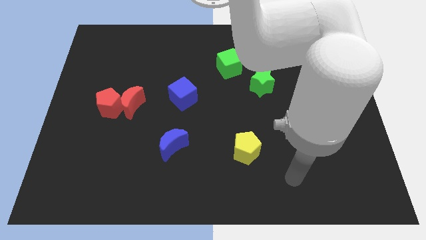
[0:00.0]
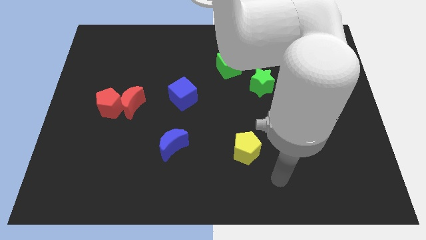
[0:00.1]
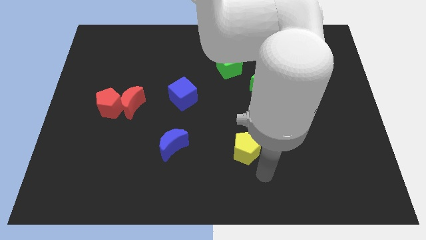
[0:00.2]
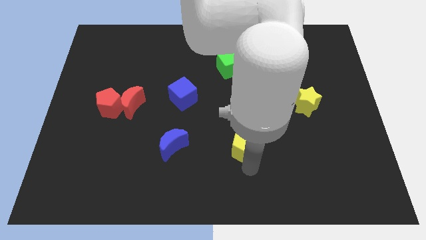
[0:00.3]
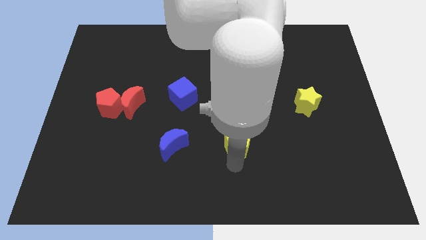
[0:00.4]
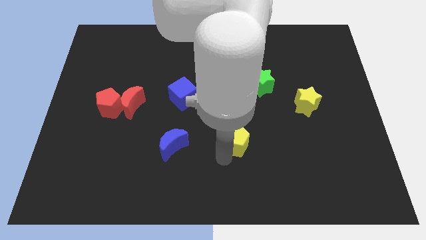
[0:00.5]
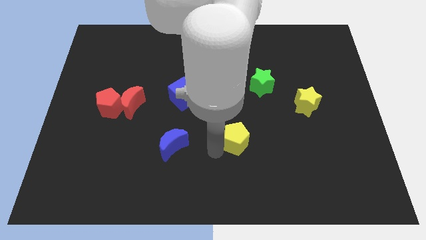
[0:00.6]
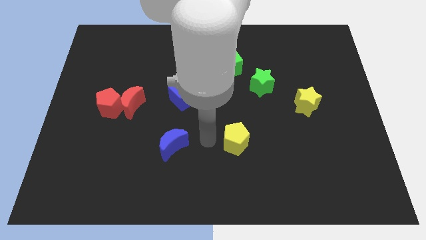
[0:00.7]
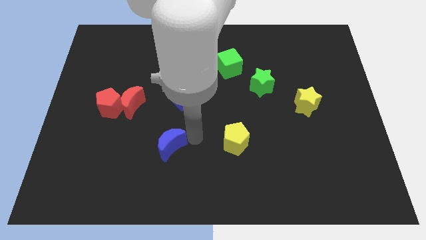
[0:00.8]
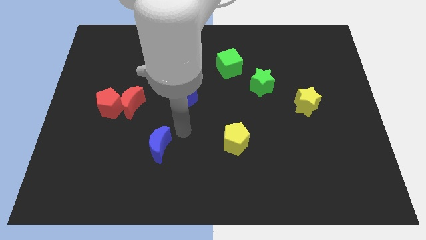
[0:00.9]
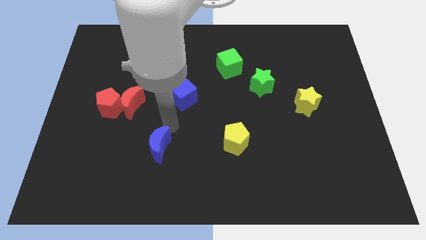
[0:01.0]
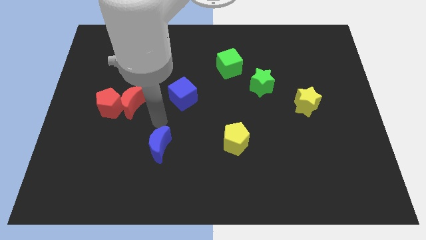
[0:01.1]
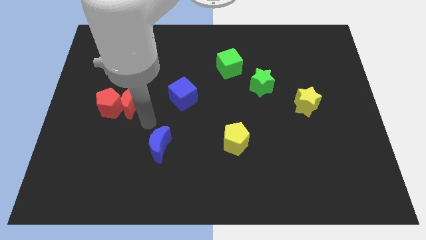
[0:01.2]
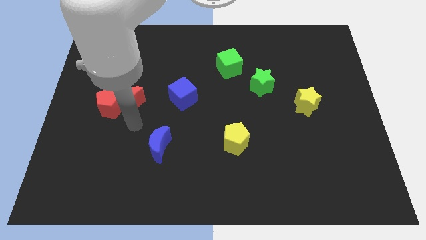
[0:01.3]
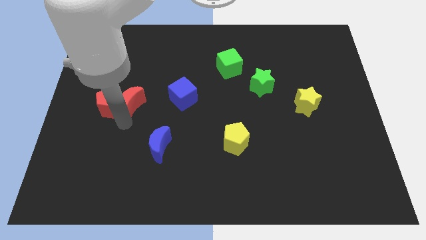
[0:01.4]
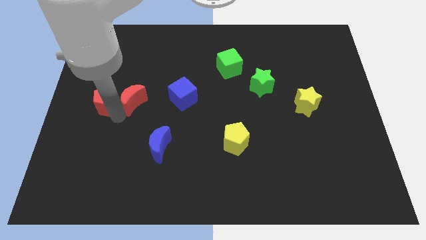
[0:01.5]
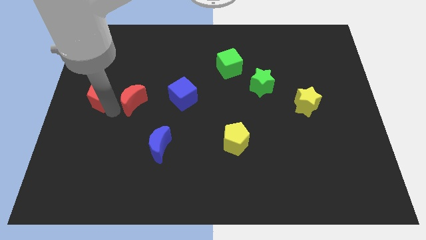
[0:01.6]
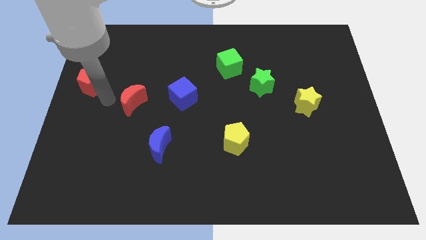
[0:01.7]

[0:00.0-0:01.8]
separate the red moon from the red pentagon

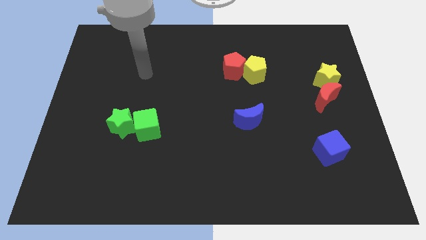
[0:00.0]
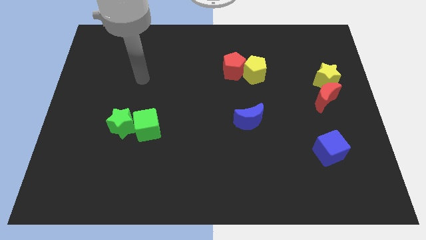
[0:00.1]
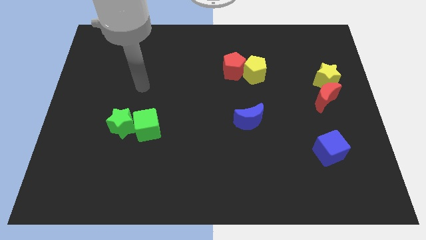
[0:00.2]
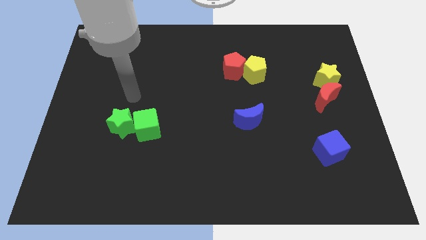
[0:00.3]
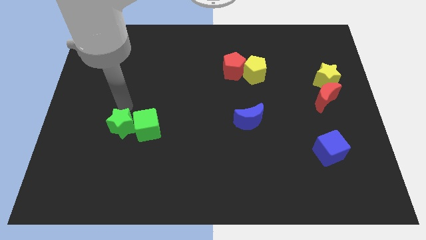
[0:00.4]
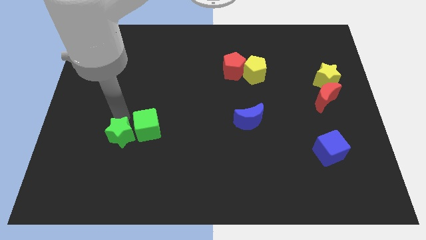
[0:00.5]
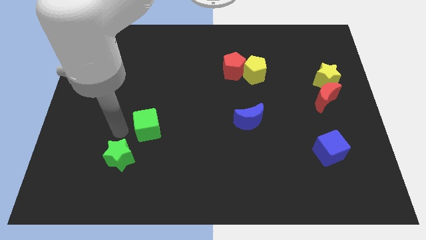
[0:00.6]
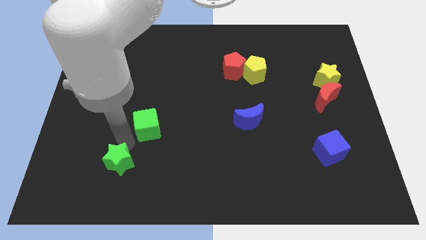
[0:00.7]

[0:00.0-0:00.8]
move the green cube away from the green star

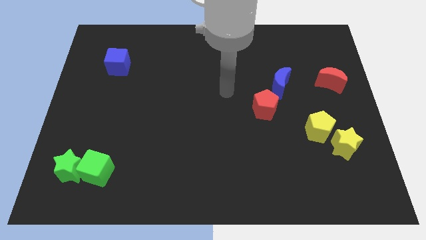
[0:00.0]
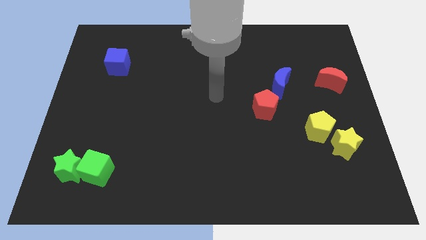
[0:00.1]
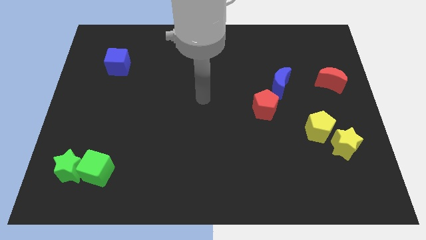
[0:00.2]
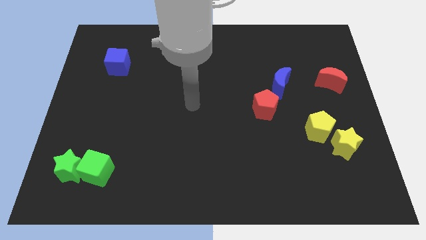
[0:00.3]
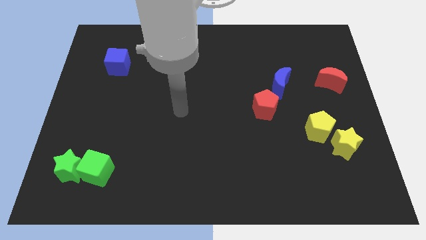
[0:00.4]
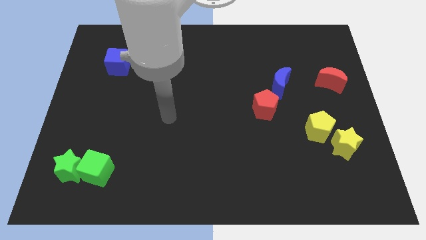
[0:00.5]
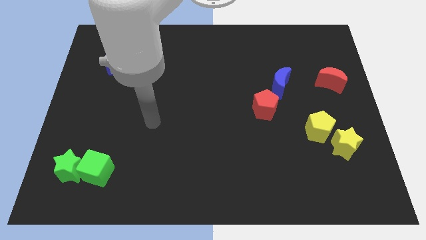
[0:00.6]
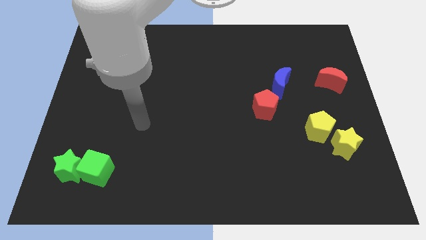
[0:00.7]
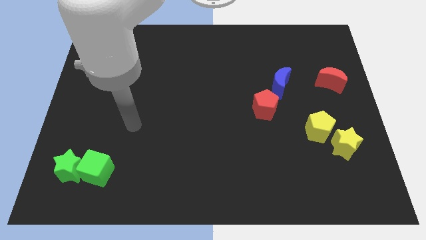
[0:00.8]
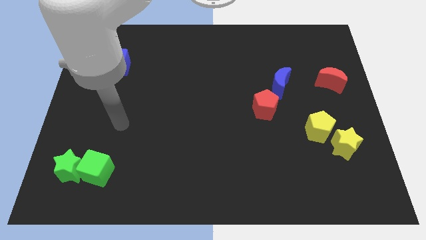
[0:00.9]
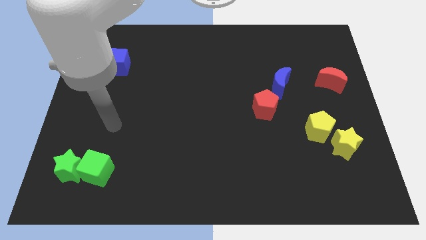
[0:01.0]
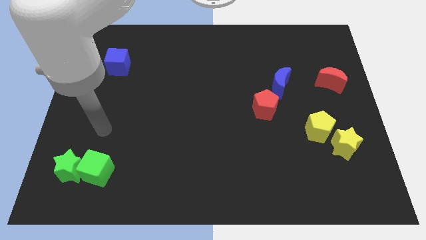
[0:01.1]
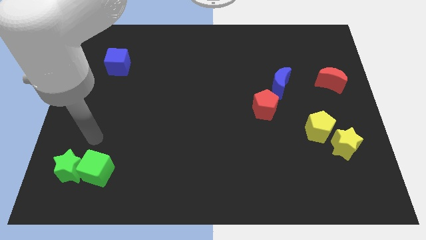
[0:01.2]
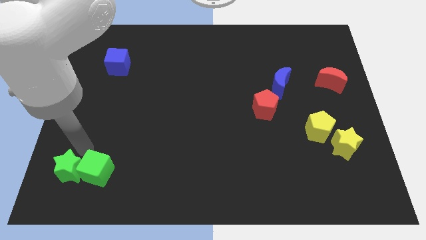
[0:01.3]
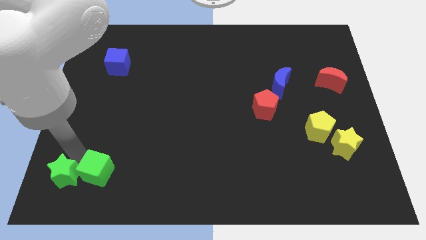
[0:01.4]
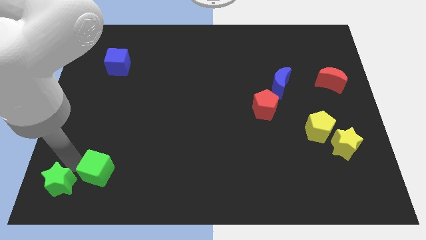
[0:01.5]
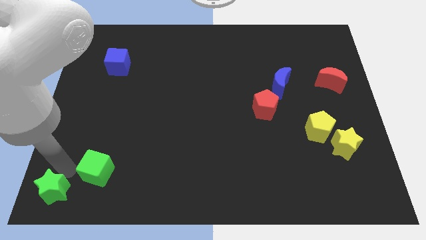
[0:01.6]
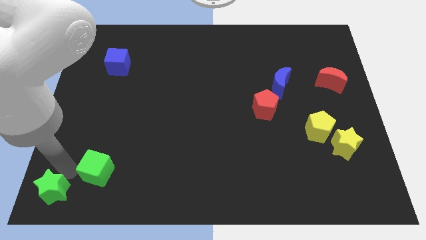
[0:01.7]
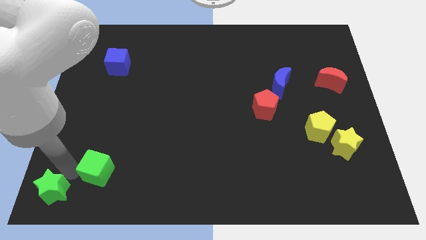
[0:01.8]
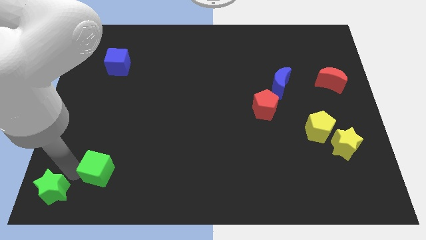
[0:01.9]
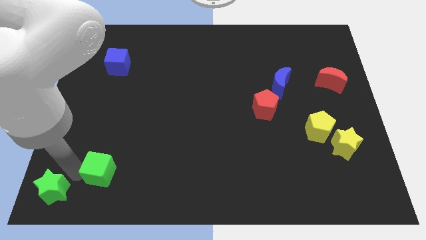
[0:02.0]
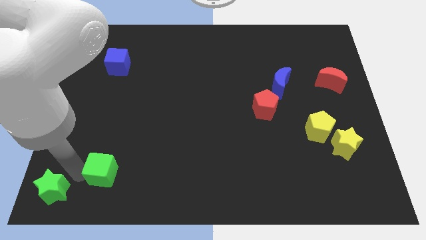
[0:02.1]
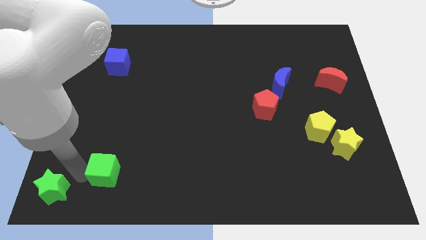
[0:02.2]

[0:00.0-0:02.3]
pull the green cube apart from the green star

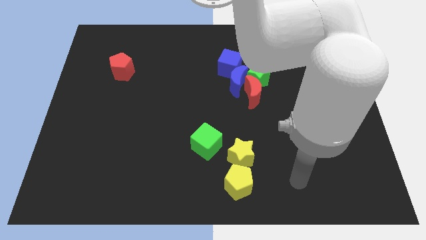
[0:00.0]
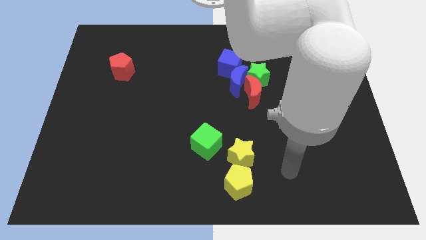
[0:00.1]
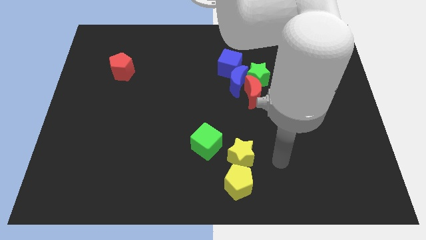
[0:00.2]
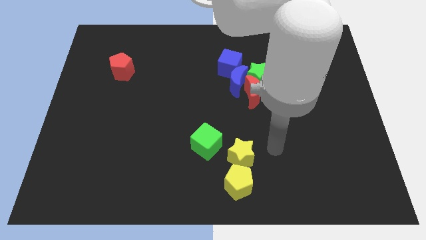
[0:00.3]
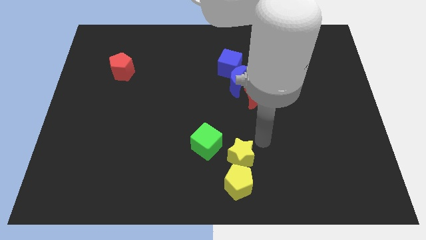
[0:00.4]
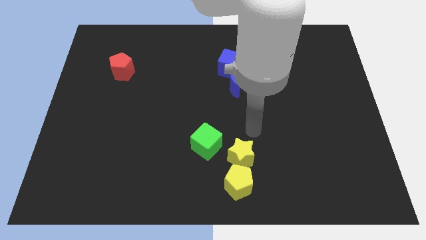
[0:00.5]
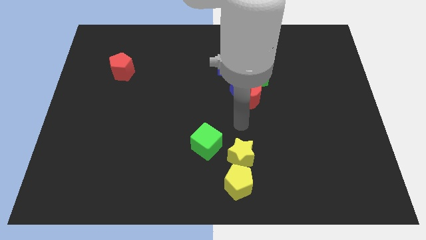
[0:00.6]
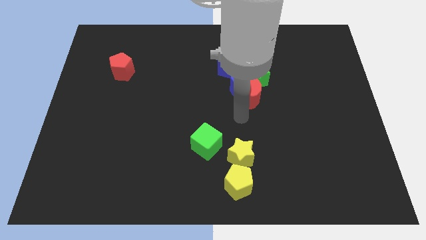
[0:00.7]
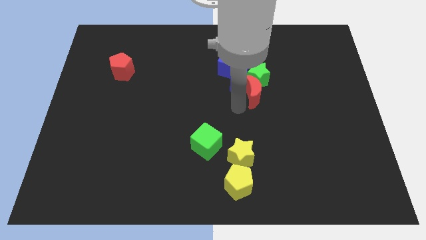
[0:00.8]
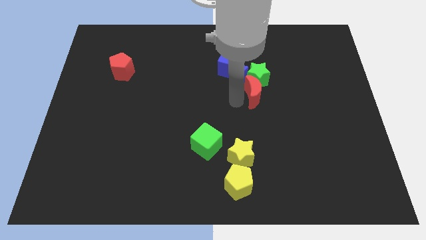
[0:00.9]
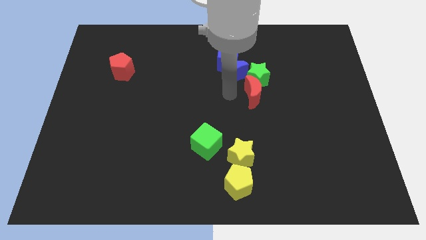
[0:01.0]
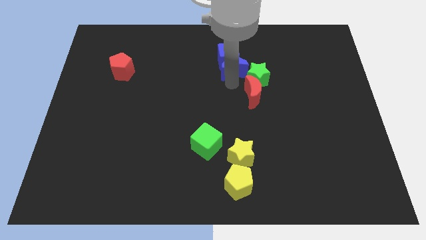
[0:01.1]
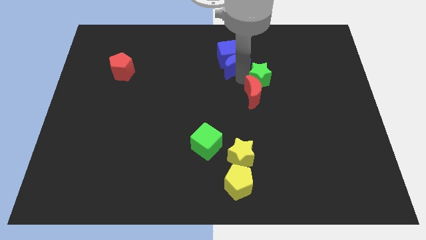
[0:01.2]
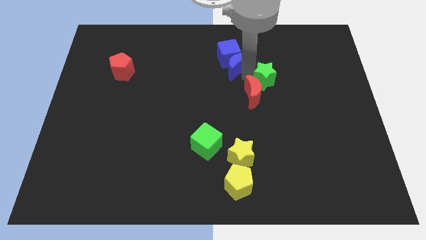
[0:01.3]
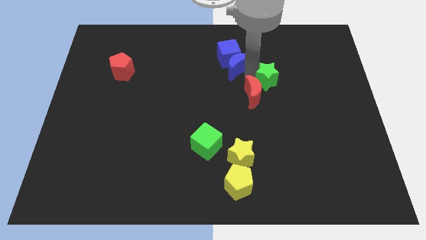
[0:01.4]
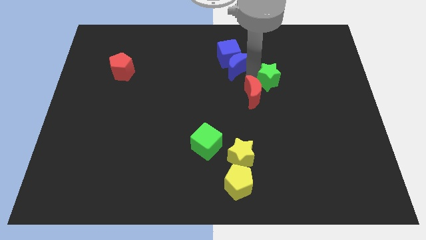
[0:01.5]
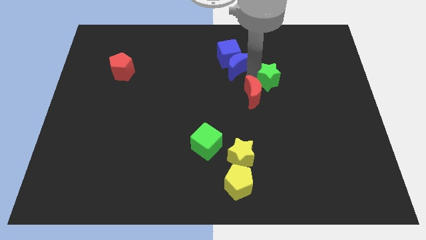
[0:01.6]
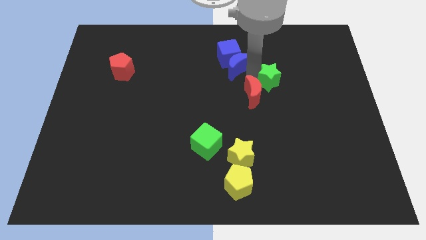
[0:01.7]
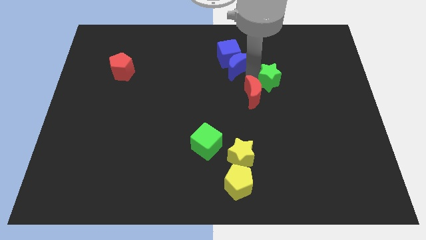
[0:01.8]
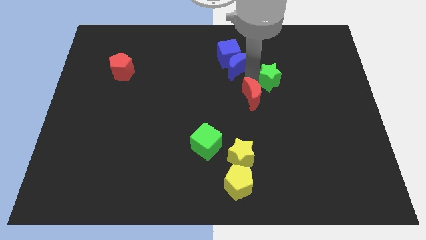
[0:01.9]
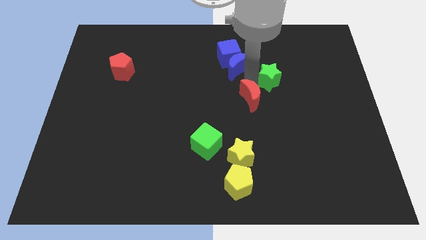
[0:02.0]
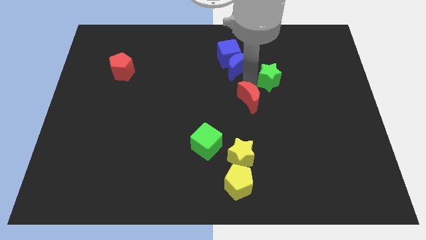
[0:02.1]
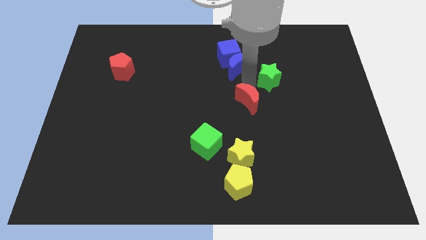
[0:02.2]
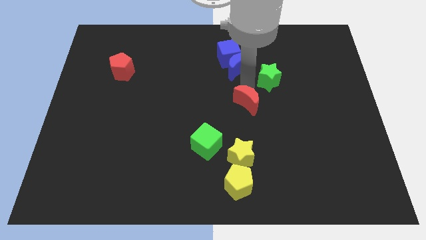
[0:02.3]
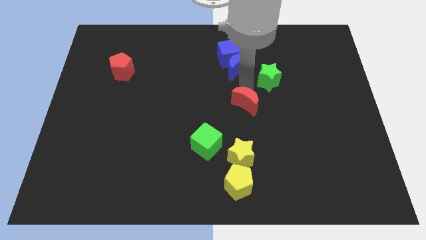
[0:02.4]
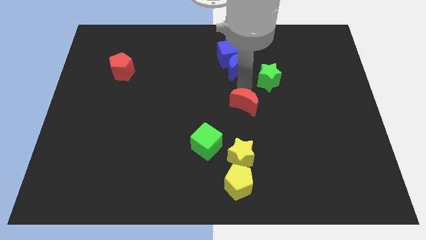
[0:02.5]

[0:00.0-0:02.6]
pull the red moon apart from the green star and blue moon

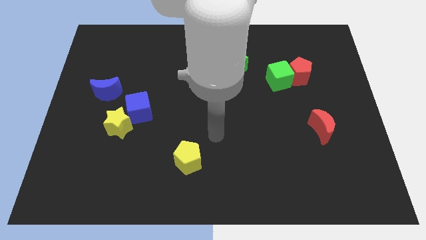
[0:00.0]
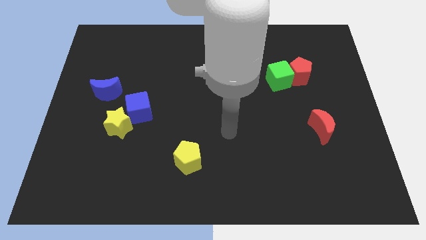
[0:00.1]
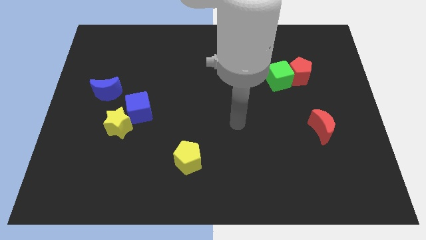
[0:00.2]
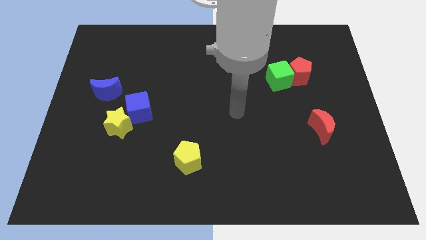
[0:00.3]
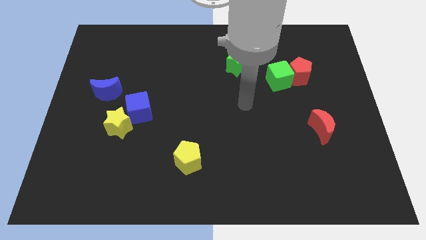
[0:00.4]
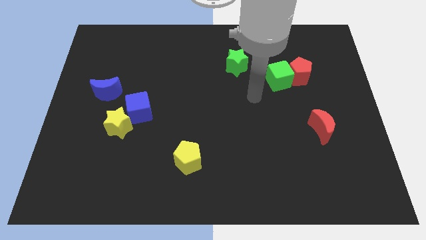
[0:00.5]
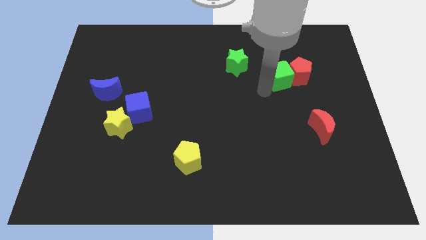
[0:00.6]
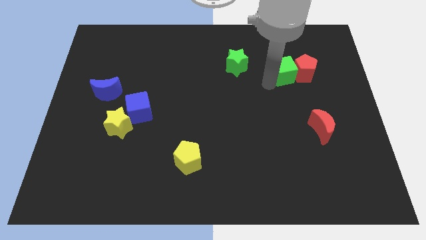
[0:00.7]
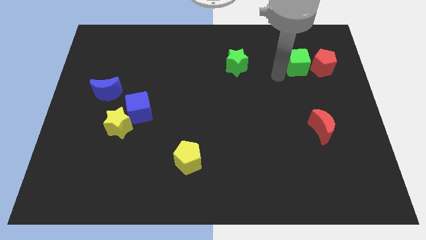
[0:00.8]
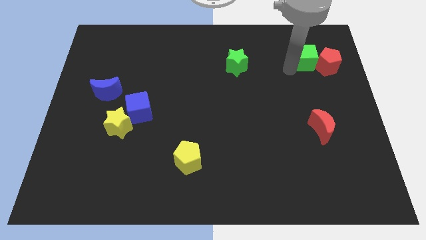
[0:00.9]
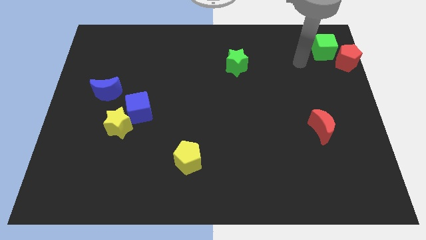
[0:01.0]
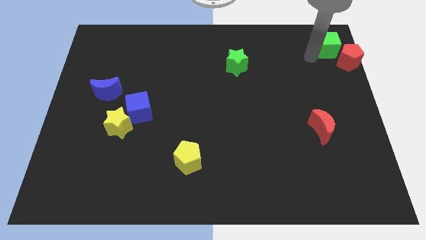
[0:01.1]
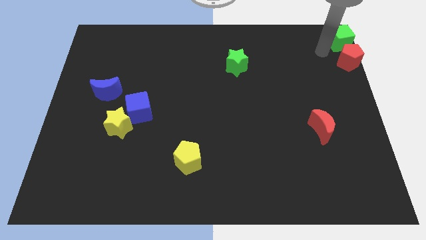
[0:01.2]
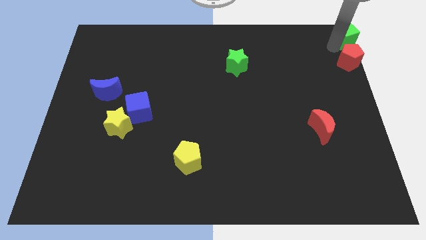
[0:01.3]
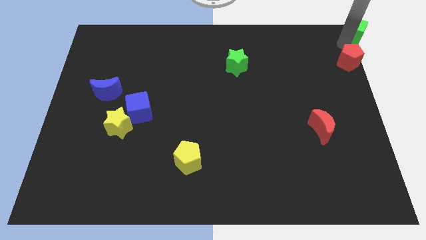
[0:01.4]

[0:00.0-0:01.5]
move the red pentagon away from the green cube

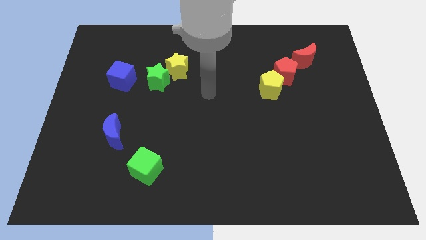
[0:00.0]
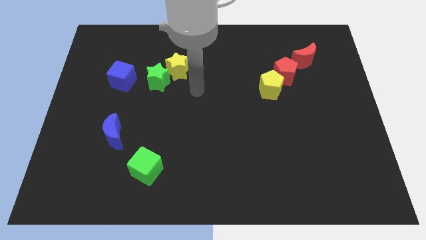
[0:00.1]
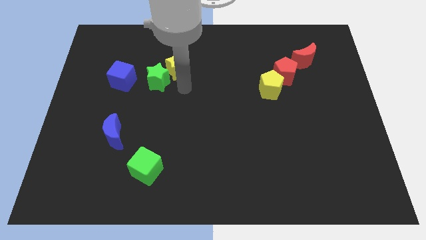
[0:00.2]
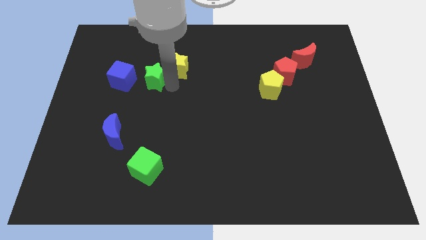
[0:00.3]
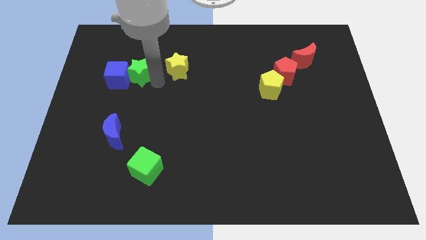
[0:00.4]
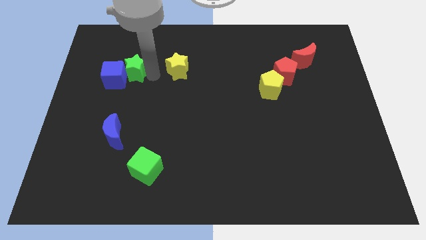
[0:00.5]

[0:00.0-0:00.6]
move the yellow star away from the green star
